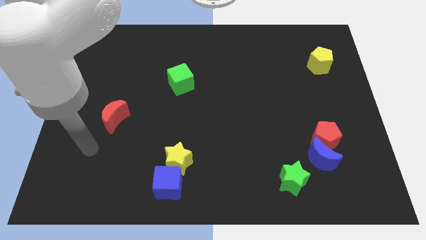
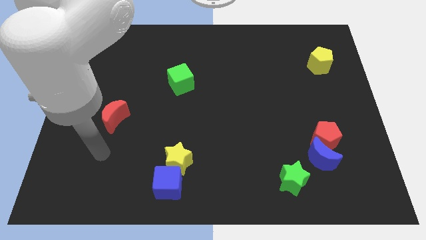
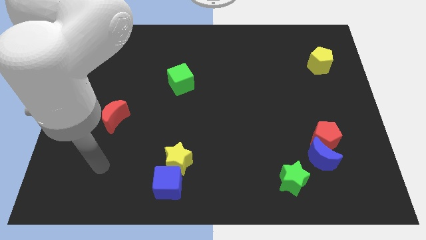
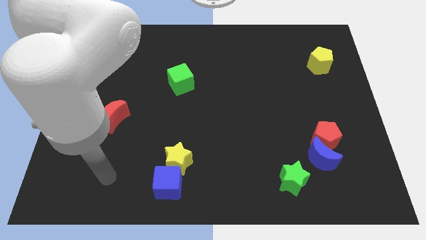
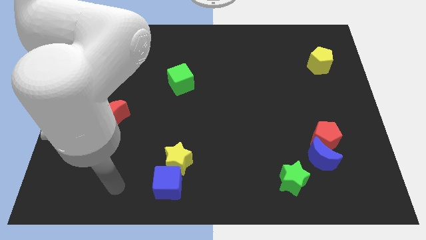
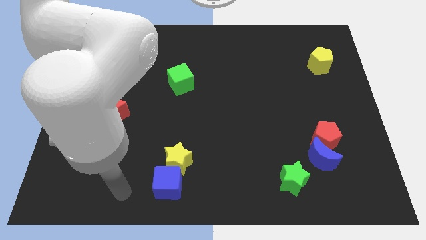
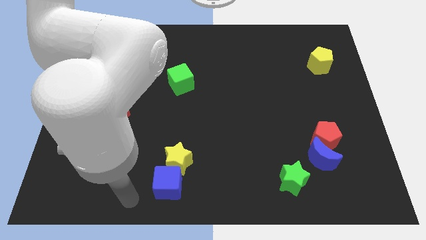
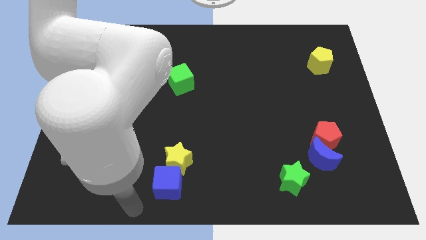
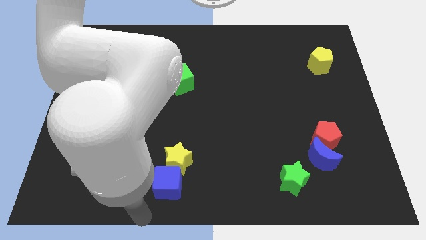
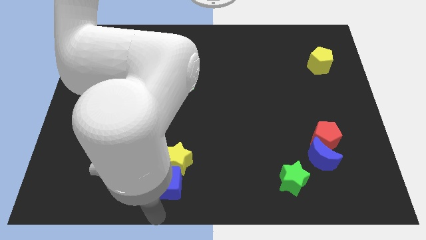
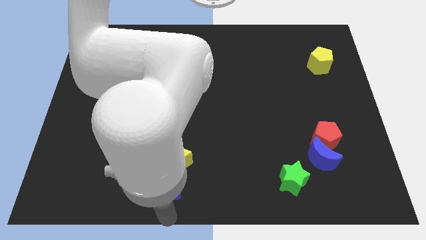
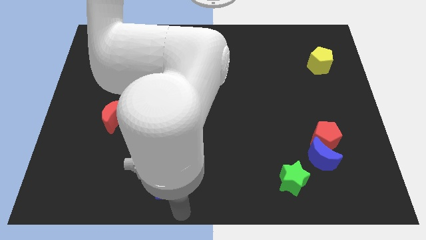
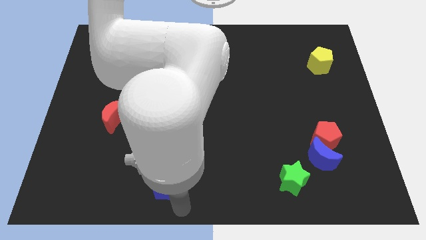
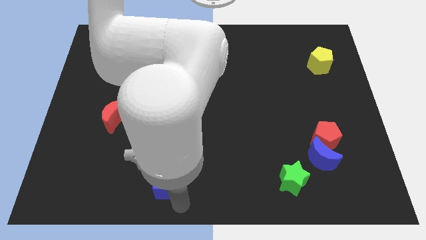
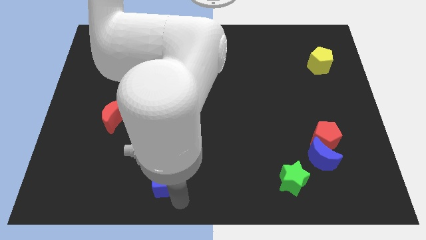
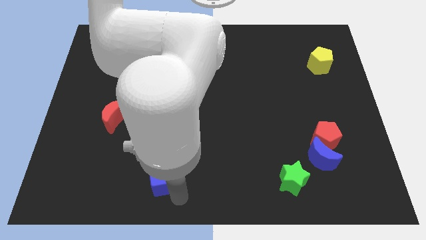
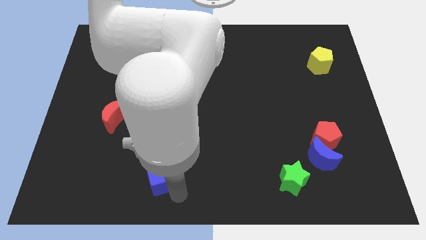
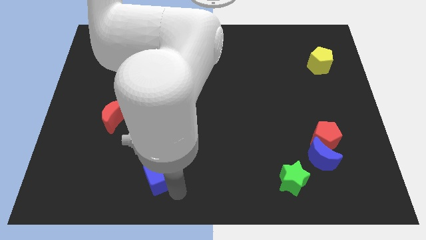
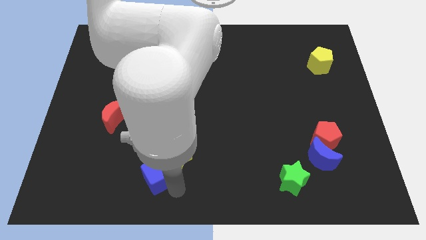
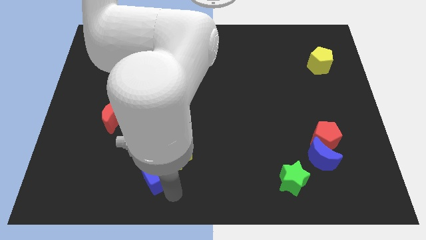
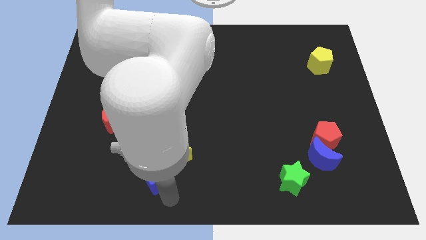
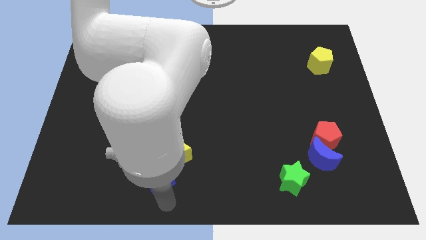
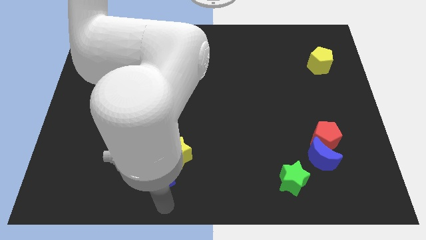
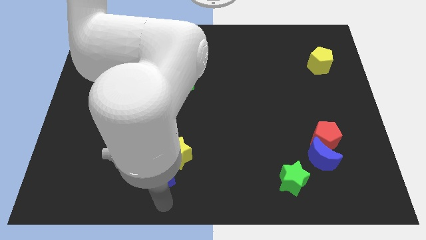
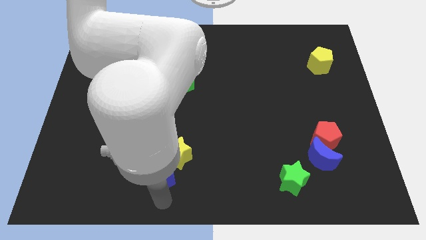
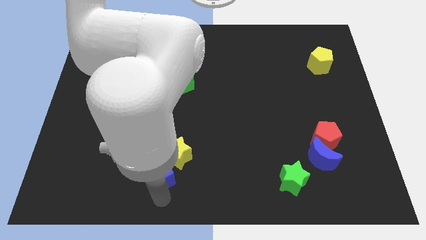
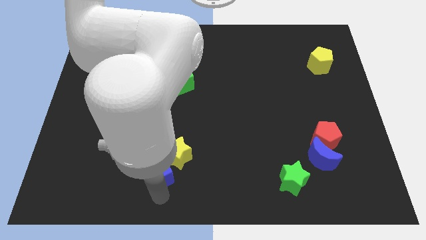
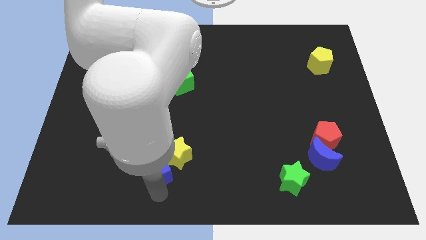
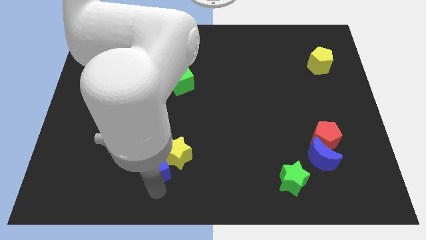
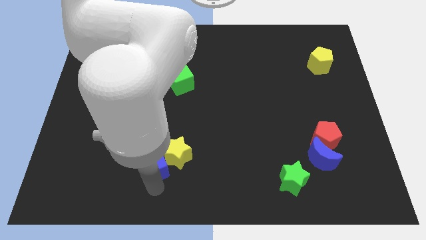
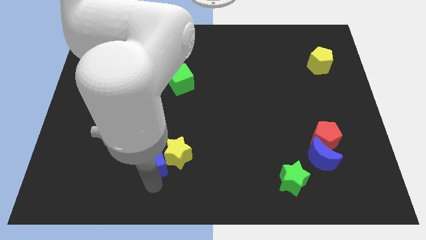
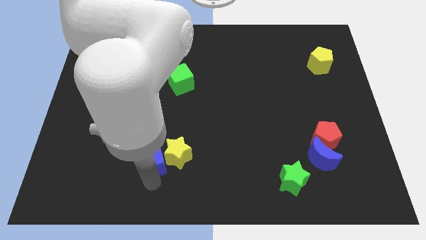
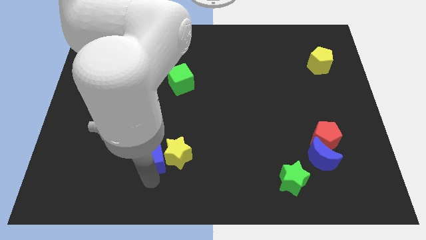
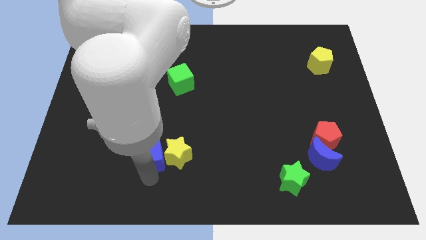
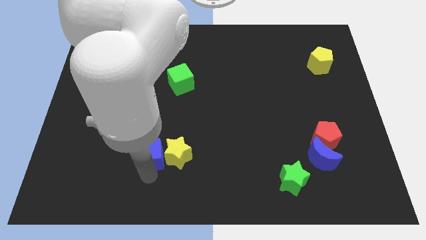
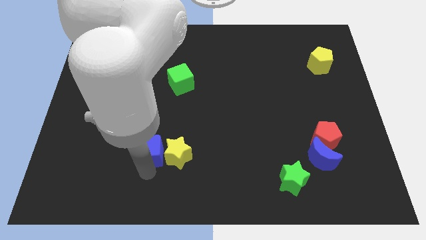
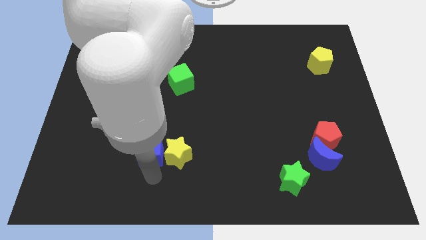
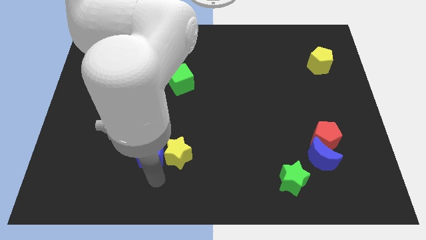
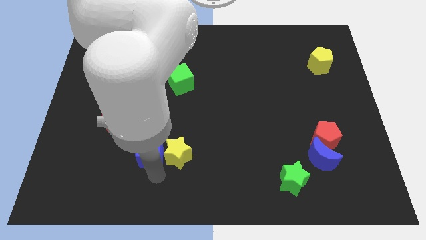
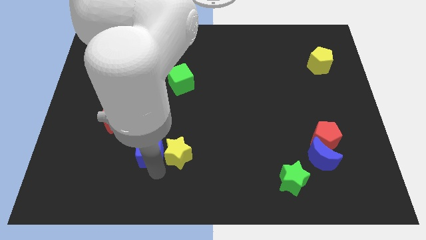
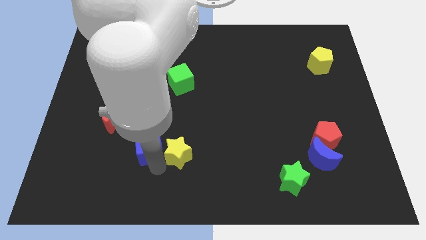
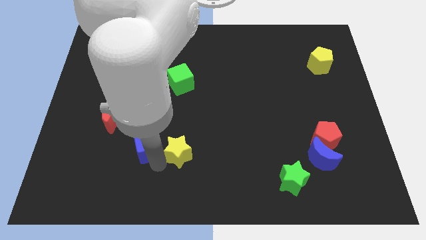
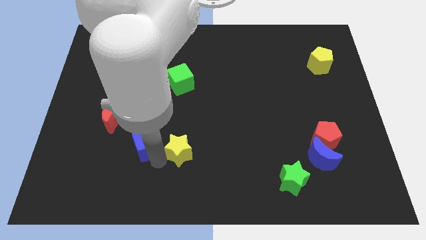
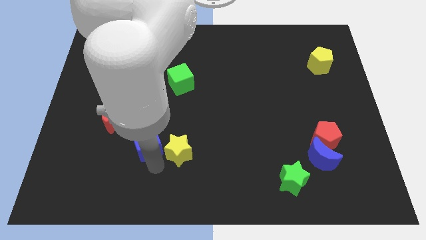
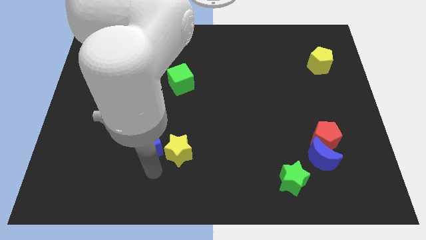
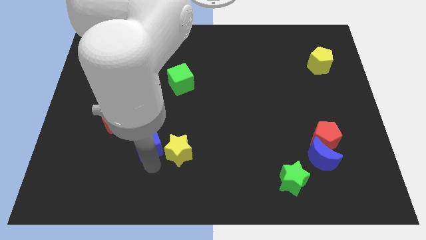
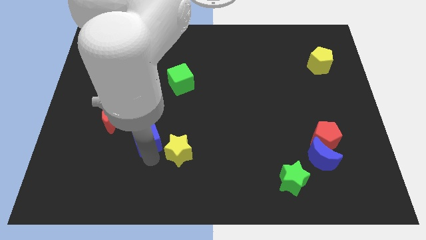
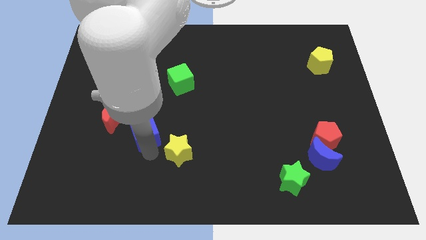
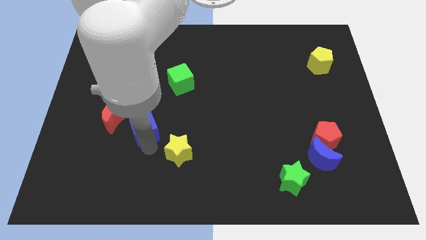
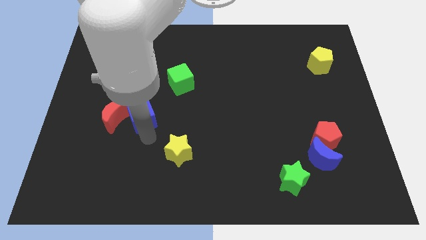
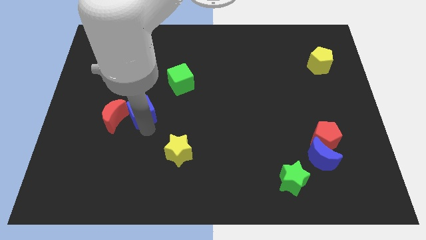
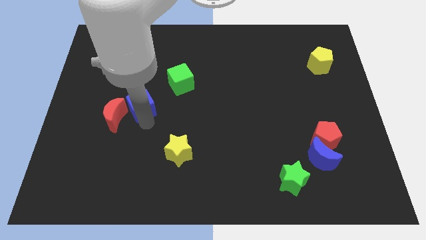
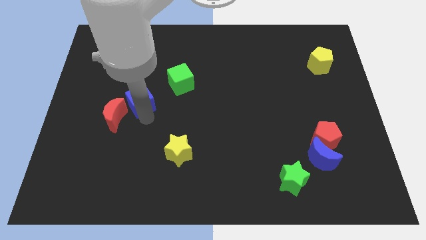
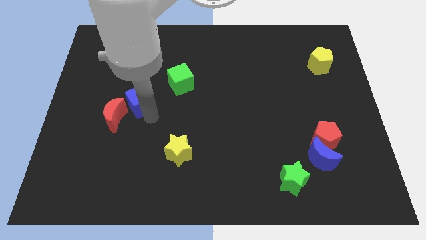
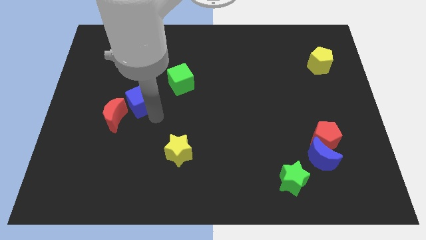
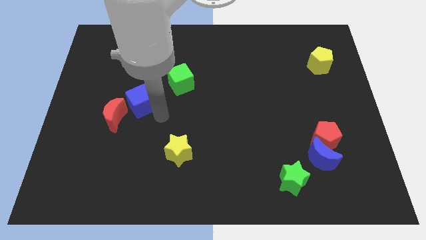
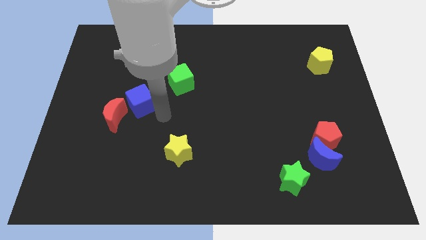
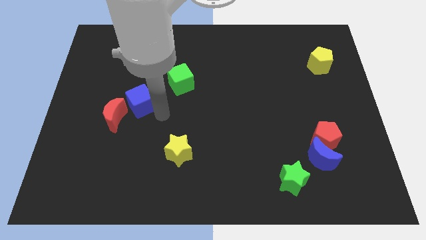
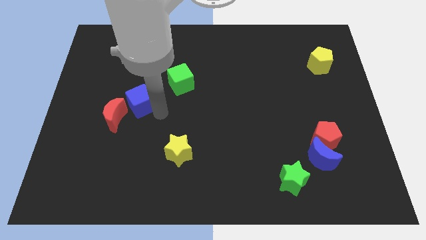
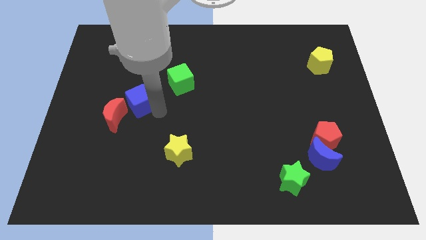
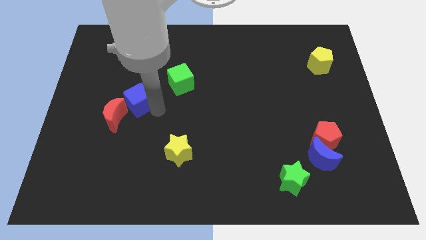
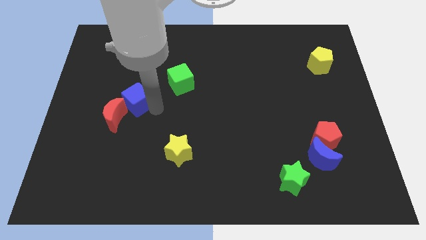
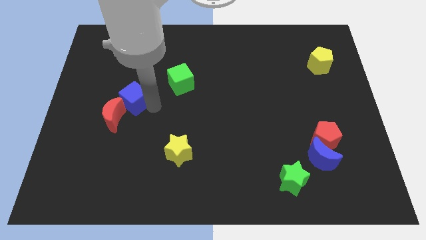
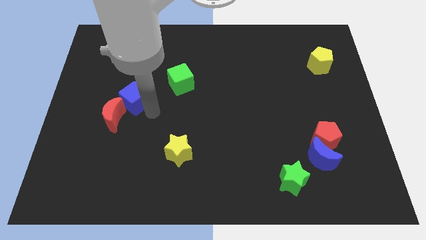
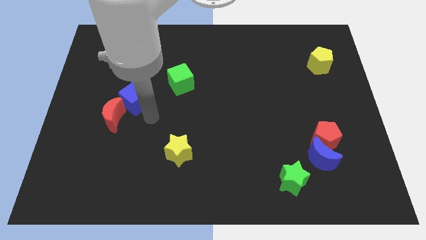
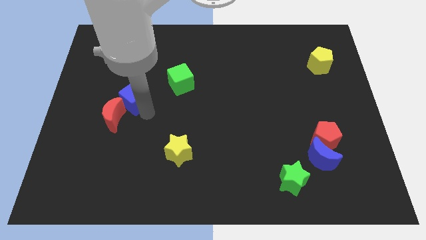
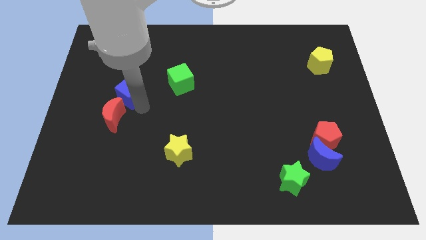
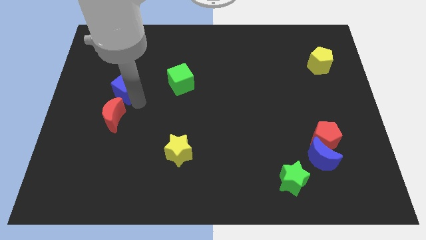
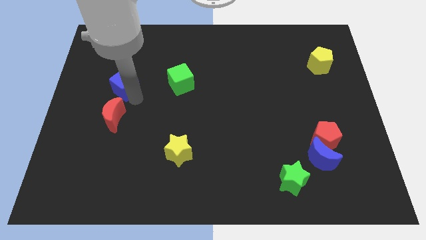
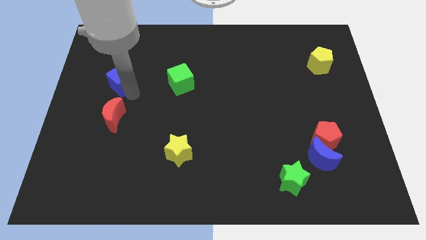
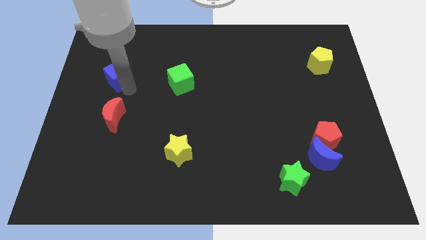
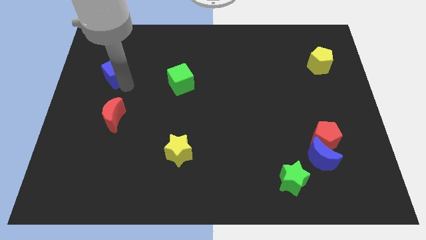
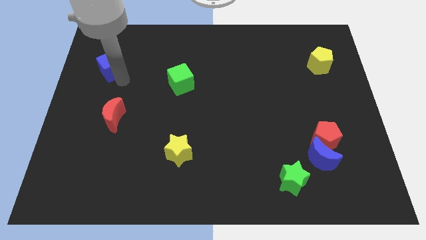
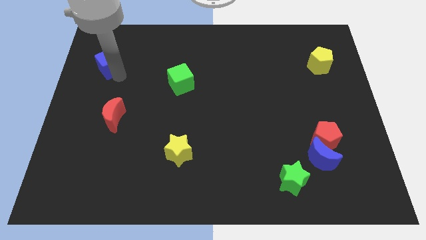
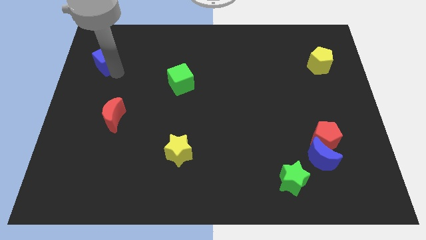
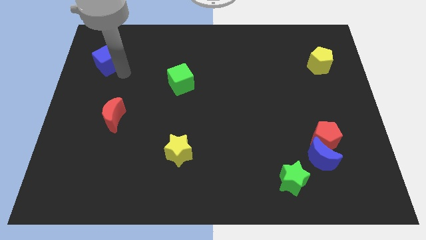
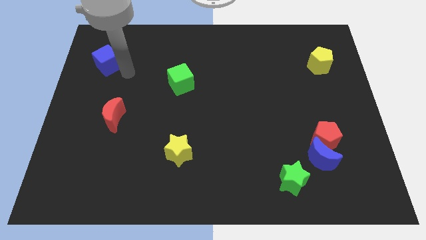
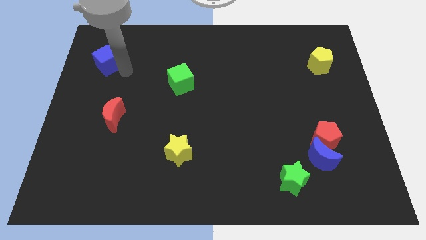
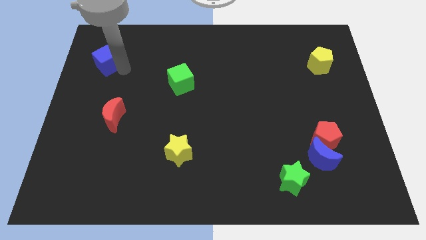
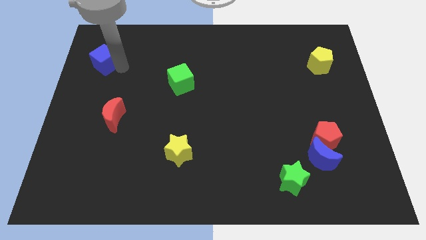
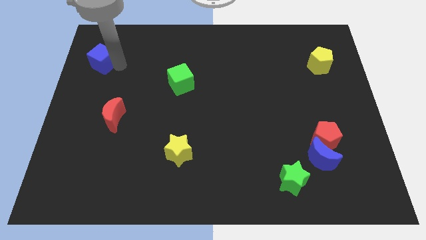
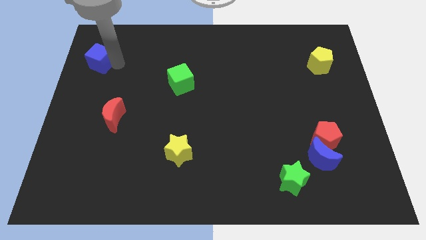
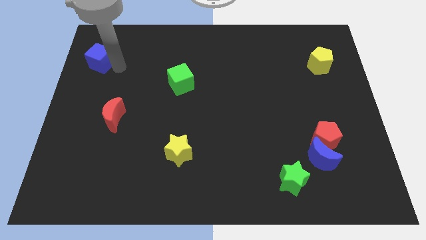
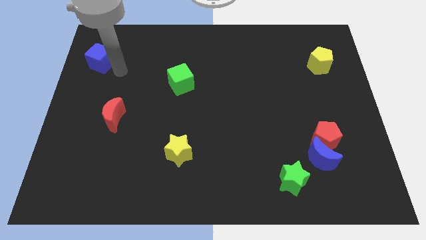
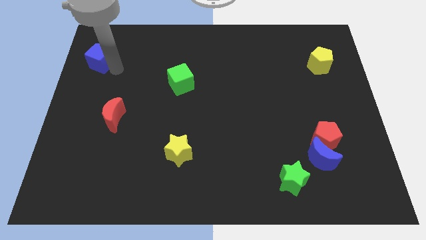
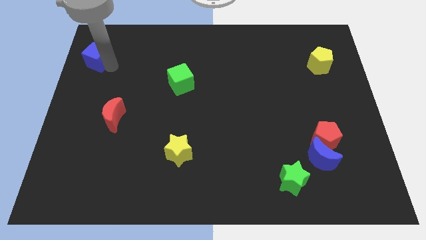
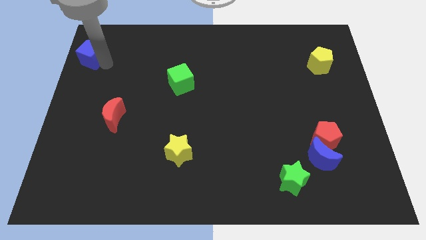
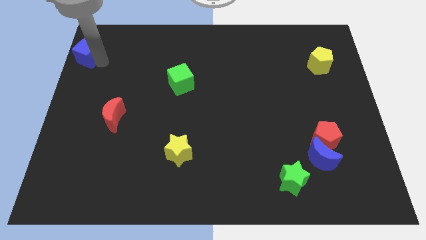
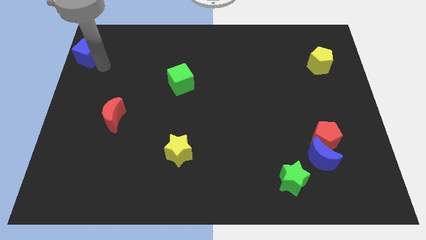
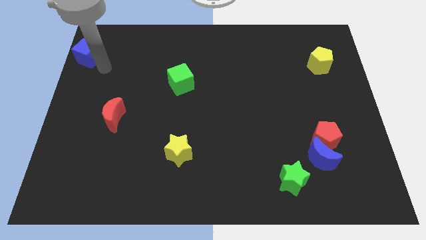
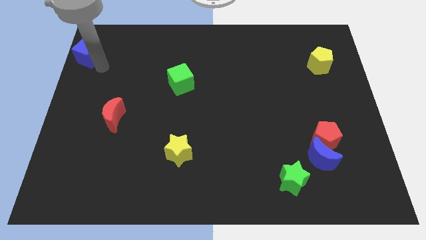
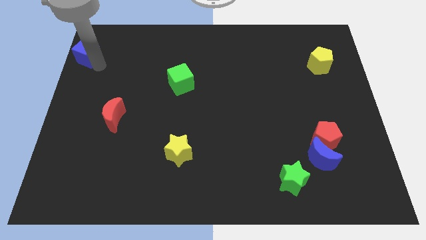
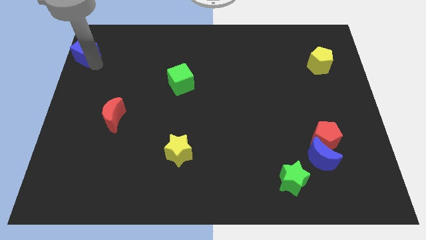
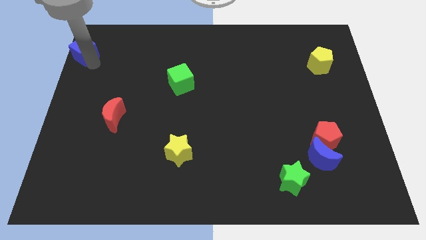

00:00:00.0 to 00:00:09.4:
push the blue cube to the upper left corner
